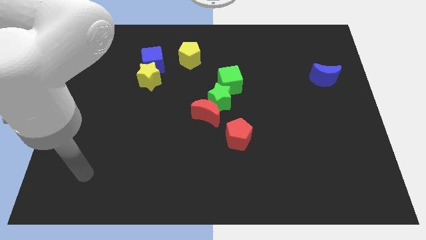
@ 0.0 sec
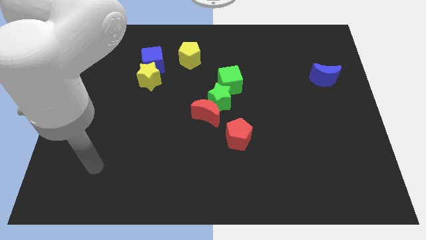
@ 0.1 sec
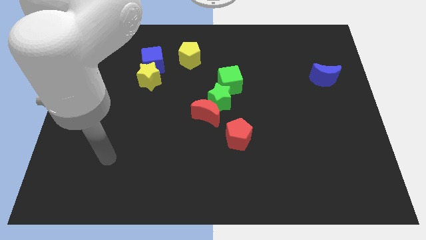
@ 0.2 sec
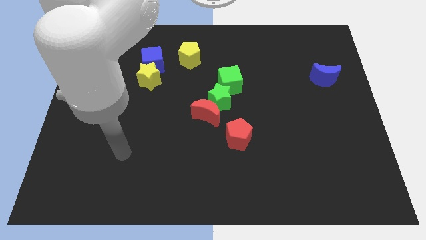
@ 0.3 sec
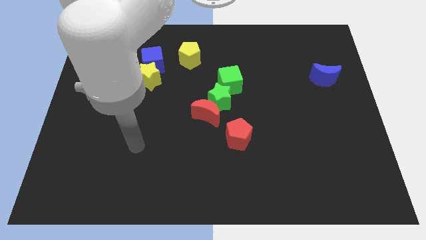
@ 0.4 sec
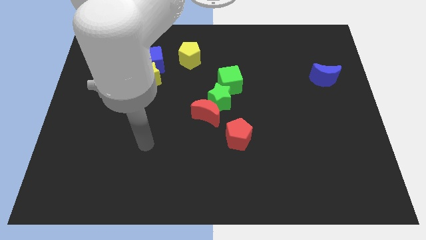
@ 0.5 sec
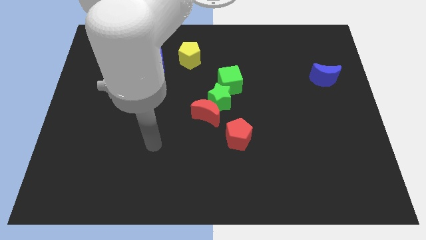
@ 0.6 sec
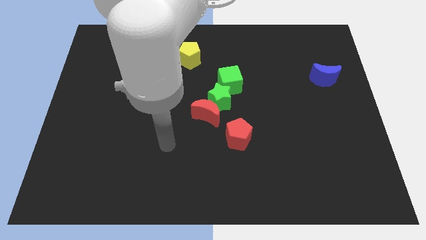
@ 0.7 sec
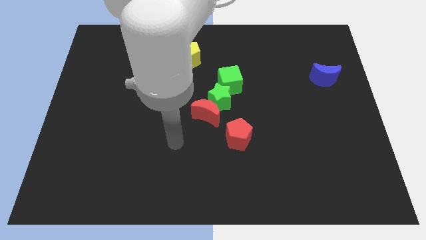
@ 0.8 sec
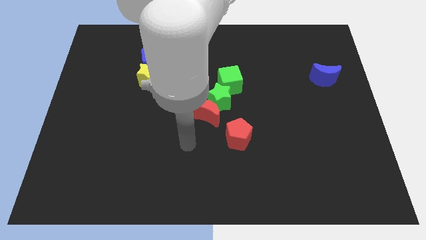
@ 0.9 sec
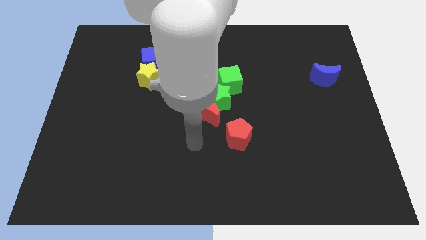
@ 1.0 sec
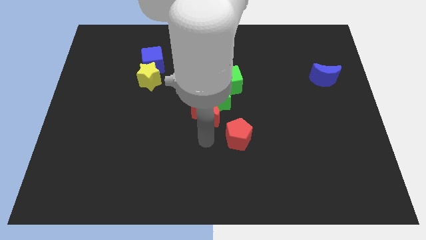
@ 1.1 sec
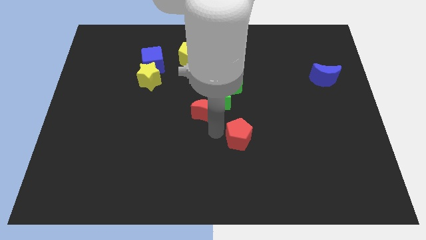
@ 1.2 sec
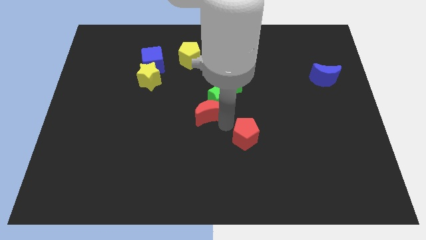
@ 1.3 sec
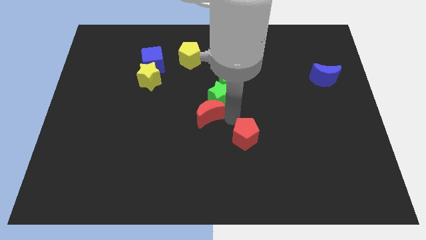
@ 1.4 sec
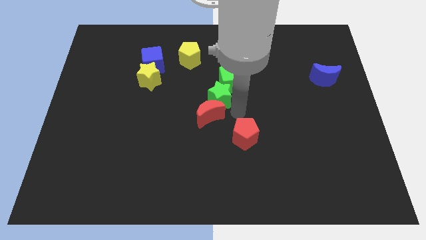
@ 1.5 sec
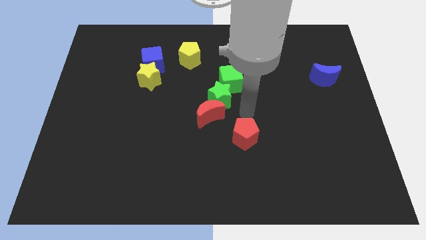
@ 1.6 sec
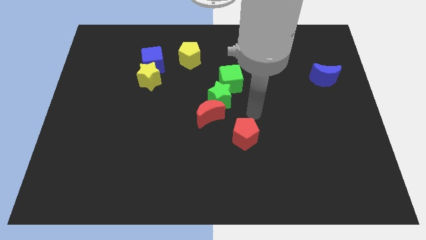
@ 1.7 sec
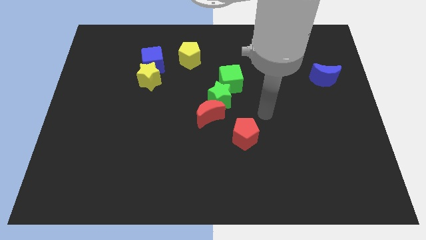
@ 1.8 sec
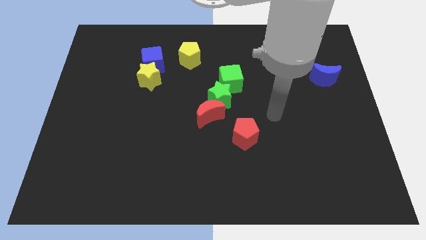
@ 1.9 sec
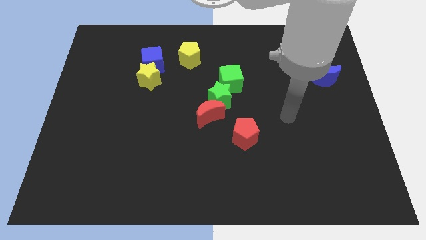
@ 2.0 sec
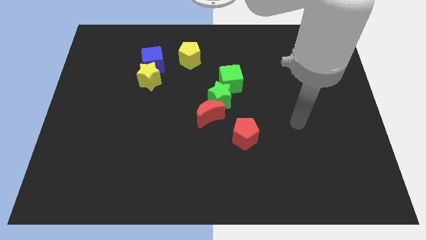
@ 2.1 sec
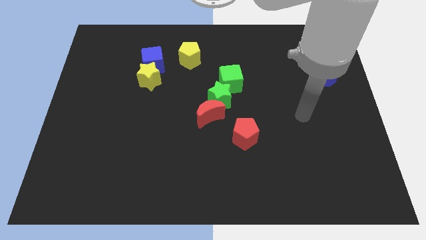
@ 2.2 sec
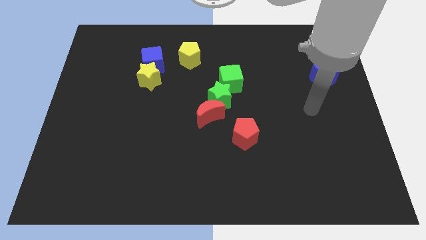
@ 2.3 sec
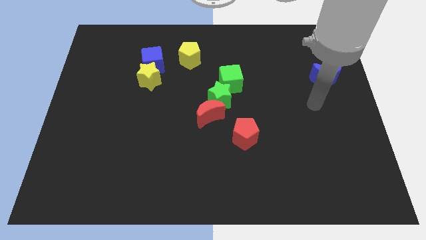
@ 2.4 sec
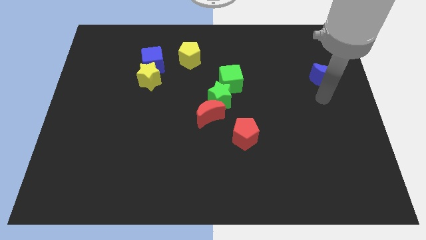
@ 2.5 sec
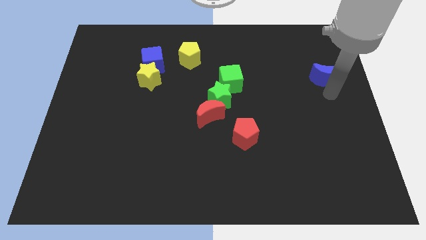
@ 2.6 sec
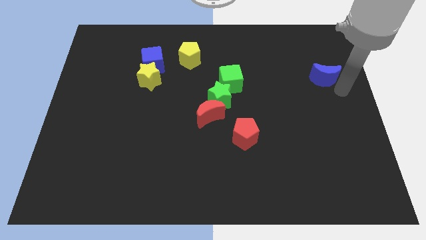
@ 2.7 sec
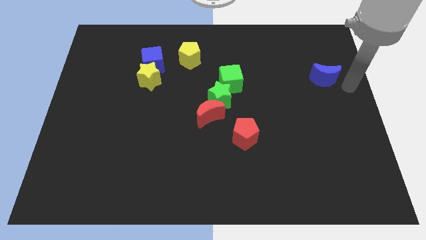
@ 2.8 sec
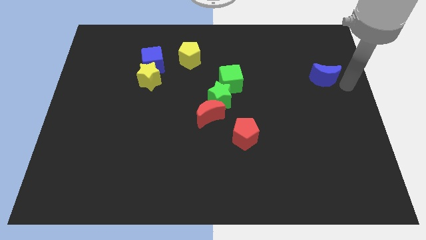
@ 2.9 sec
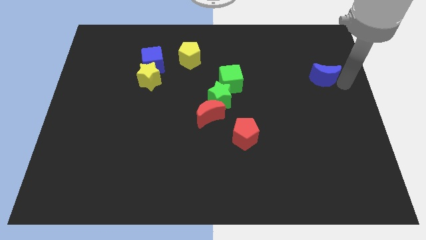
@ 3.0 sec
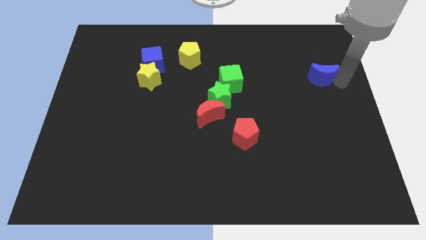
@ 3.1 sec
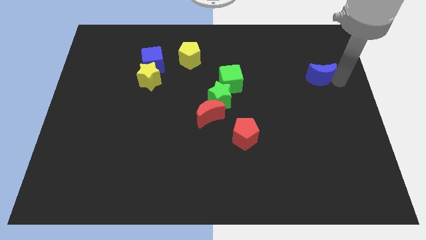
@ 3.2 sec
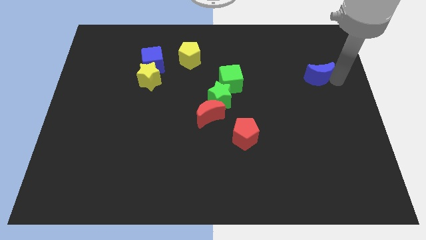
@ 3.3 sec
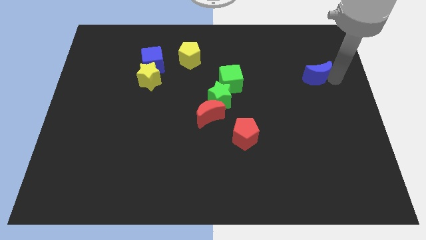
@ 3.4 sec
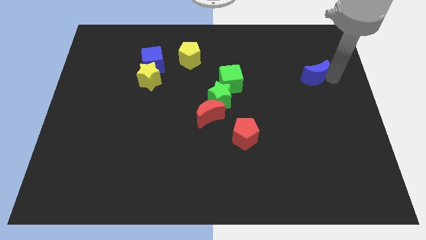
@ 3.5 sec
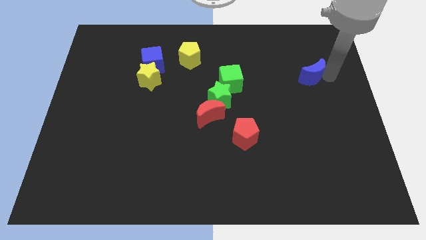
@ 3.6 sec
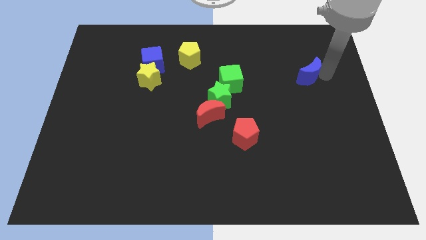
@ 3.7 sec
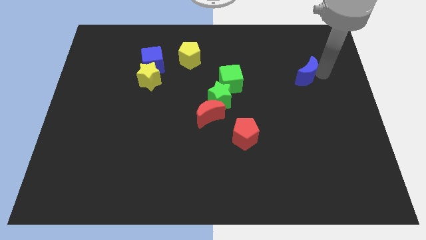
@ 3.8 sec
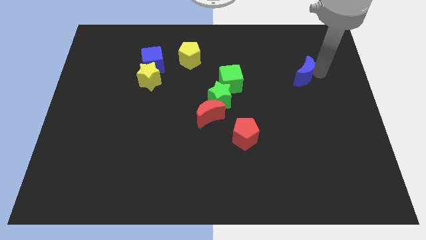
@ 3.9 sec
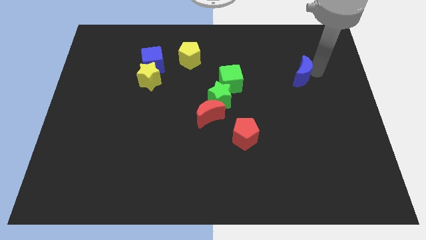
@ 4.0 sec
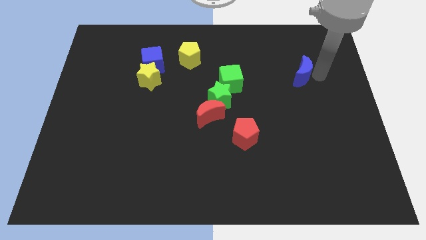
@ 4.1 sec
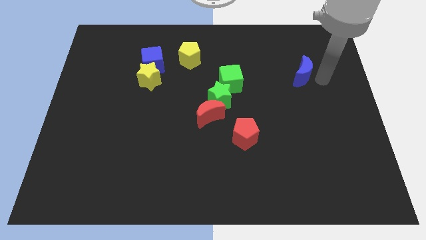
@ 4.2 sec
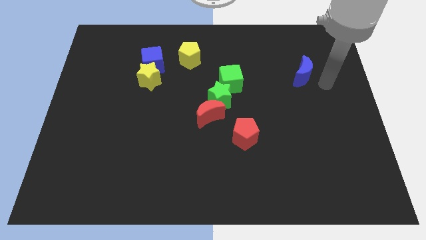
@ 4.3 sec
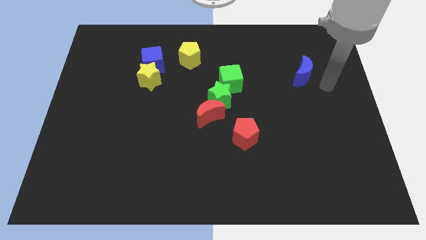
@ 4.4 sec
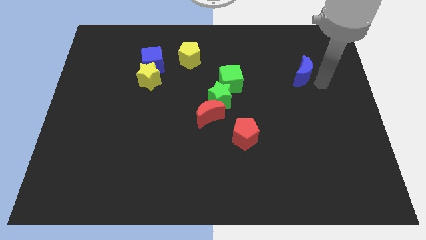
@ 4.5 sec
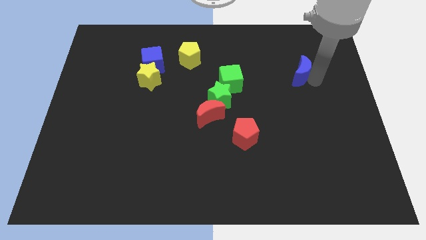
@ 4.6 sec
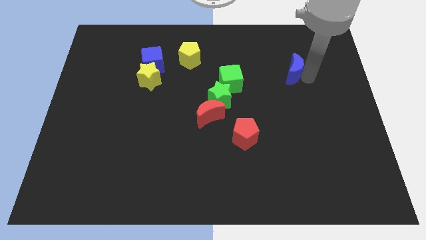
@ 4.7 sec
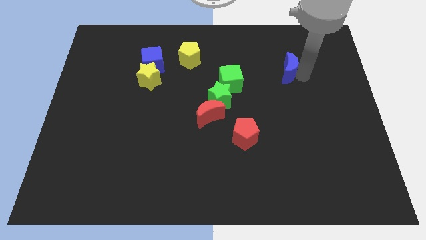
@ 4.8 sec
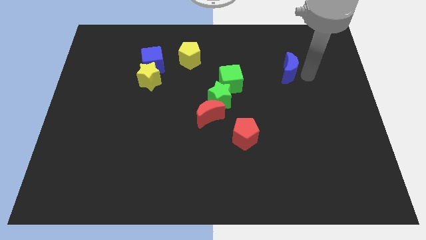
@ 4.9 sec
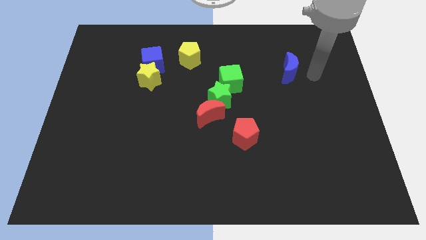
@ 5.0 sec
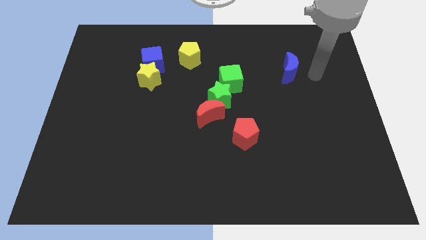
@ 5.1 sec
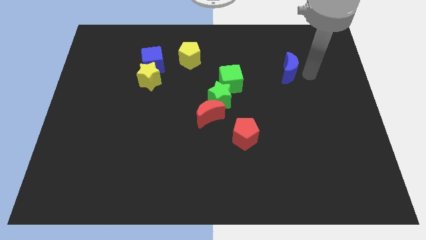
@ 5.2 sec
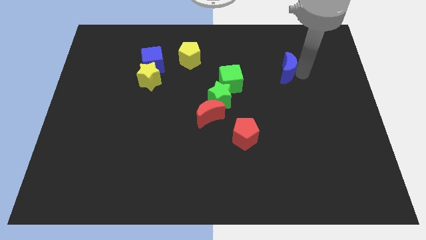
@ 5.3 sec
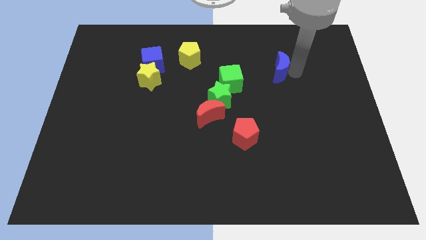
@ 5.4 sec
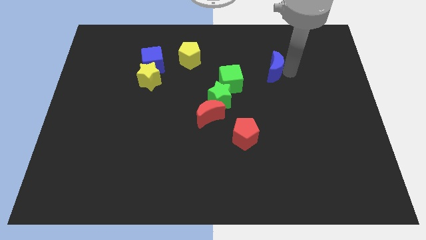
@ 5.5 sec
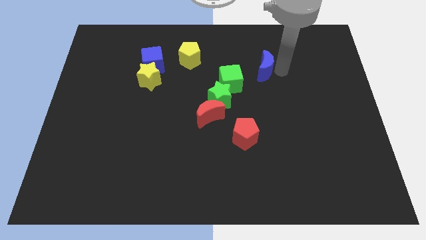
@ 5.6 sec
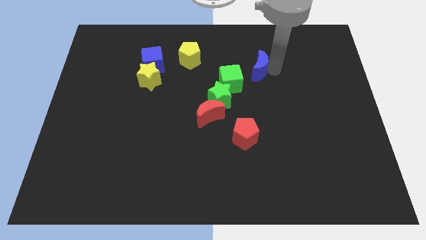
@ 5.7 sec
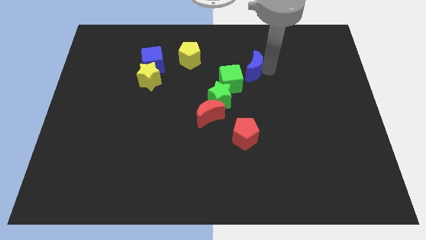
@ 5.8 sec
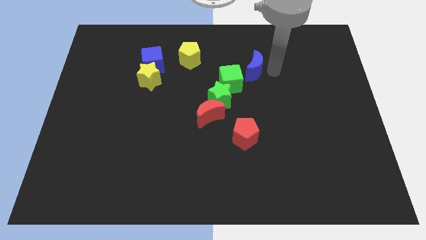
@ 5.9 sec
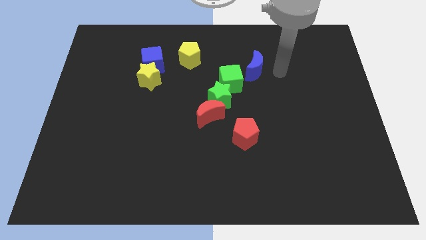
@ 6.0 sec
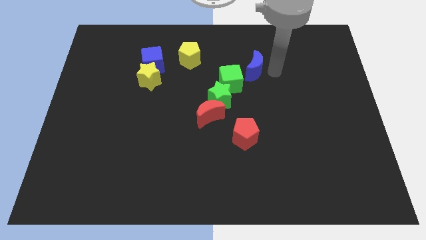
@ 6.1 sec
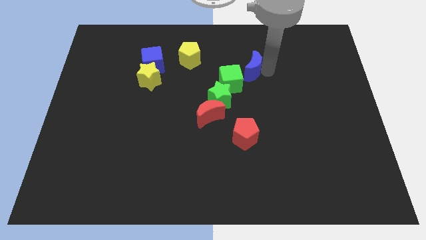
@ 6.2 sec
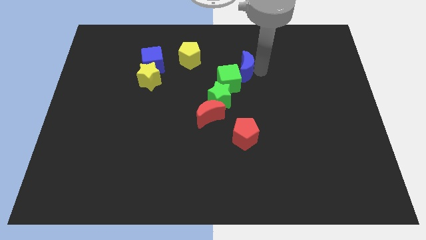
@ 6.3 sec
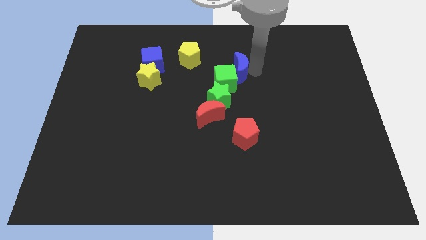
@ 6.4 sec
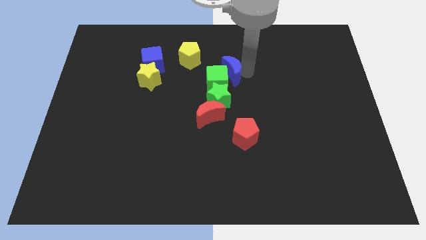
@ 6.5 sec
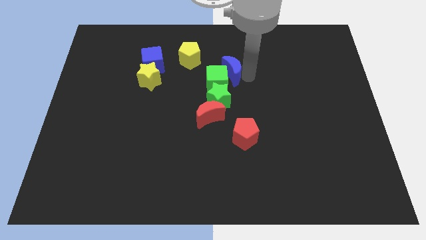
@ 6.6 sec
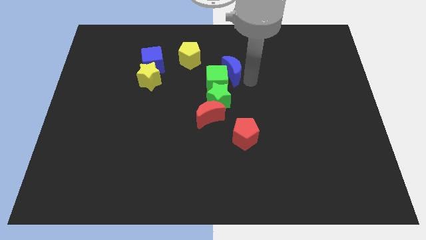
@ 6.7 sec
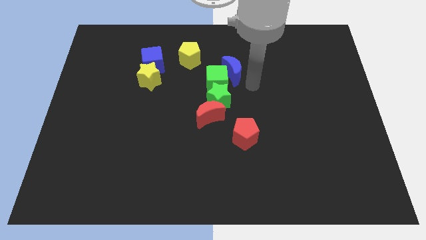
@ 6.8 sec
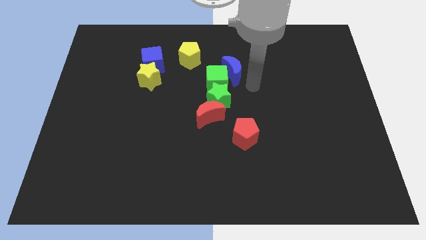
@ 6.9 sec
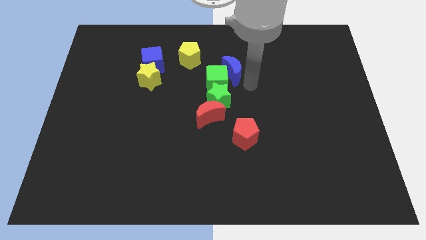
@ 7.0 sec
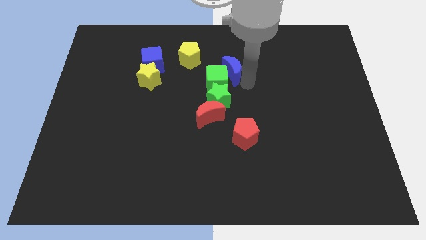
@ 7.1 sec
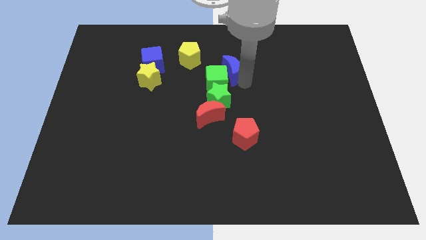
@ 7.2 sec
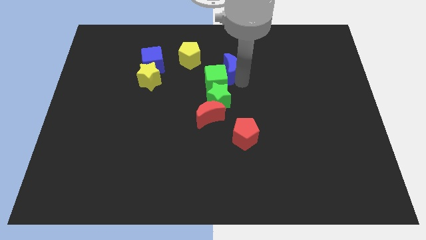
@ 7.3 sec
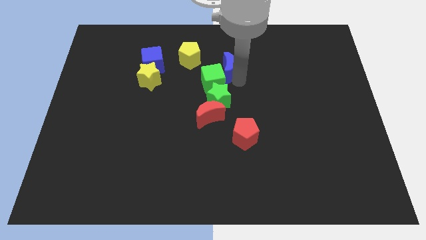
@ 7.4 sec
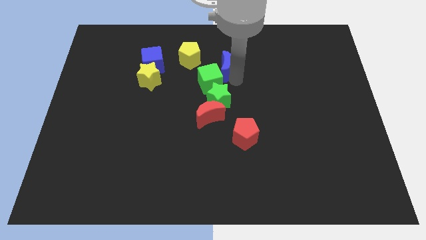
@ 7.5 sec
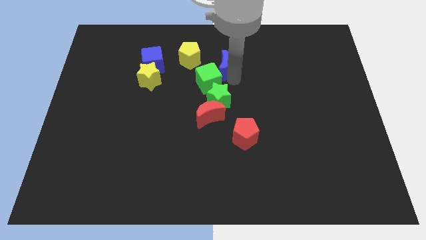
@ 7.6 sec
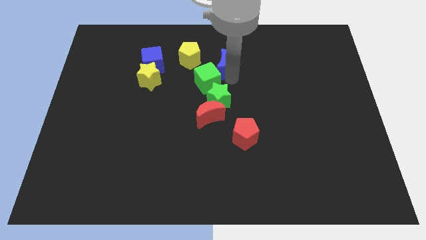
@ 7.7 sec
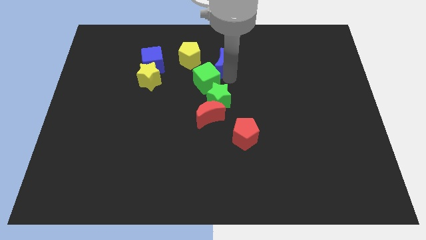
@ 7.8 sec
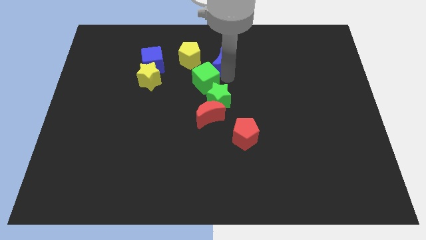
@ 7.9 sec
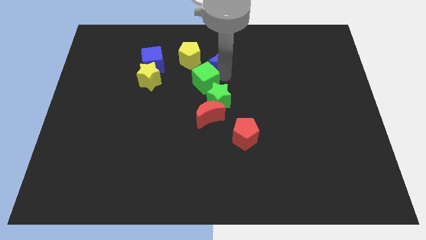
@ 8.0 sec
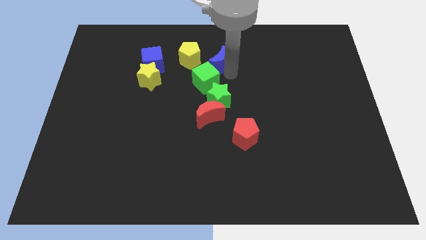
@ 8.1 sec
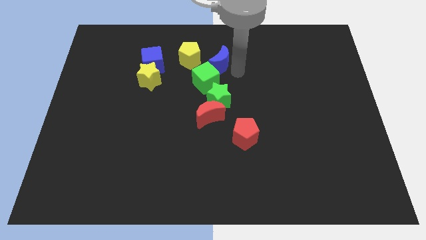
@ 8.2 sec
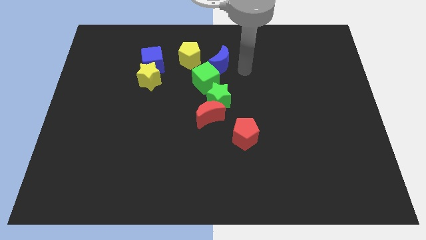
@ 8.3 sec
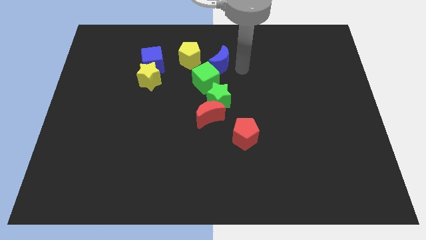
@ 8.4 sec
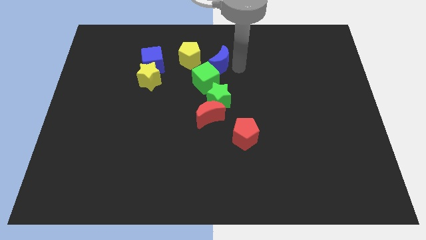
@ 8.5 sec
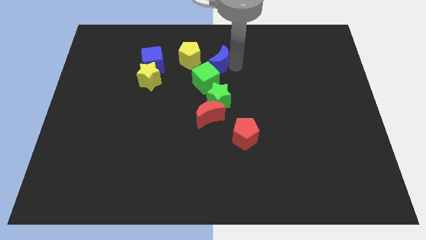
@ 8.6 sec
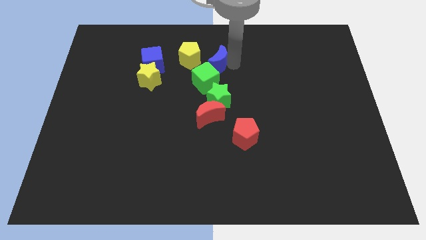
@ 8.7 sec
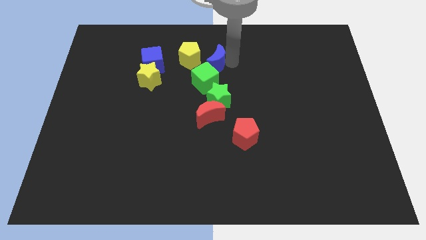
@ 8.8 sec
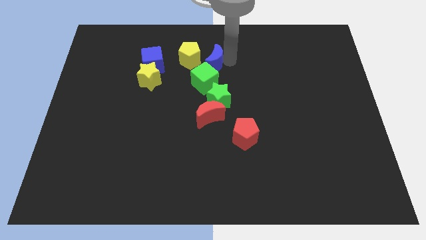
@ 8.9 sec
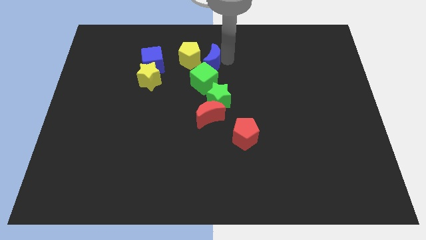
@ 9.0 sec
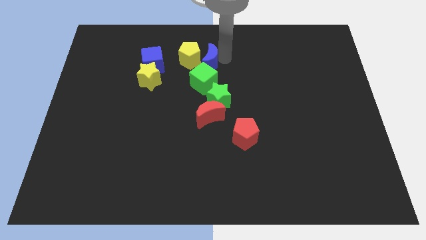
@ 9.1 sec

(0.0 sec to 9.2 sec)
move the blue moon next to the yellow pentagon
